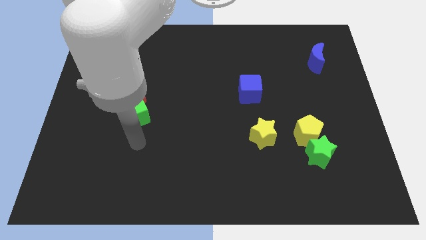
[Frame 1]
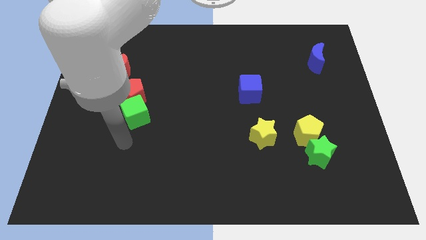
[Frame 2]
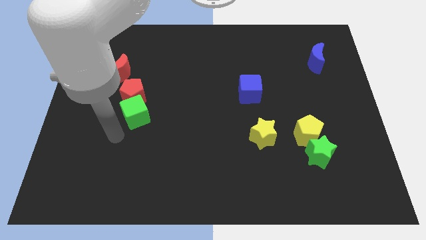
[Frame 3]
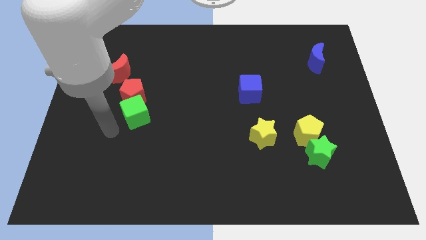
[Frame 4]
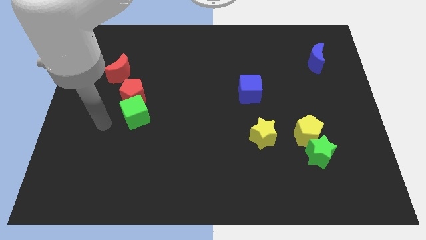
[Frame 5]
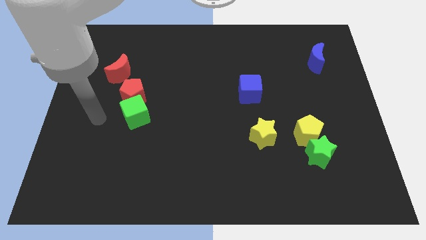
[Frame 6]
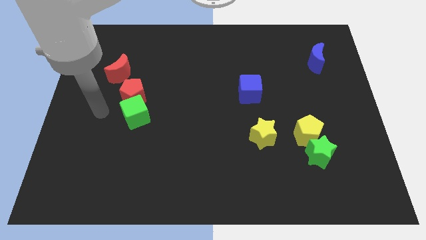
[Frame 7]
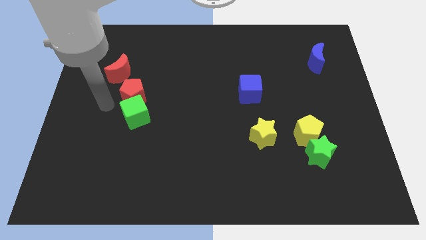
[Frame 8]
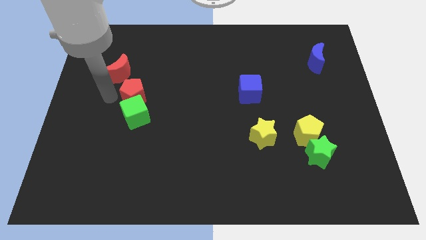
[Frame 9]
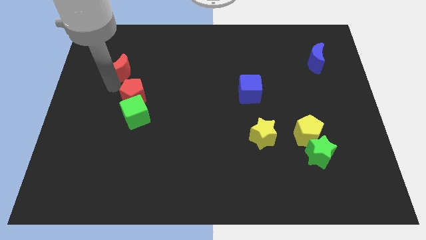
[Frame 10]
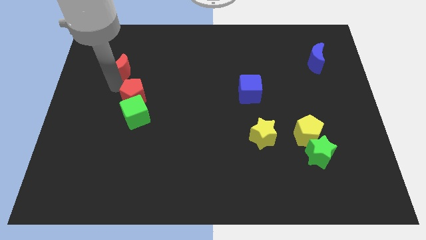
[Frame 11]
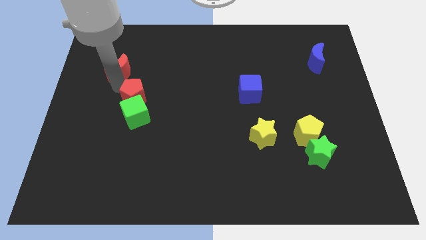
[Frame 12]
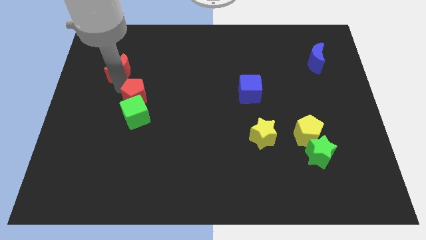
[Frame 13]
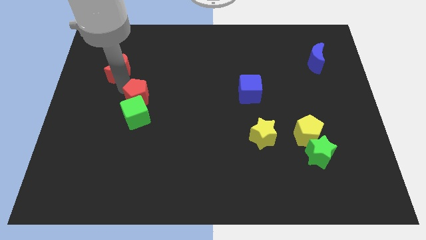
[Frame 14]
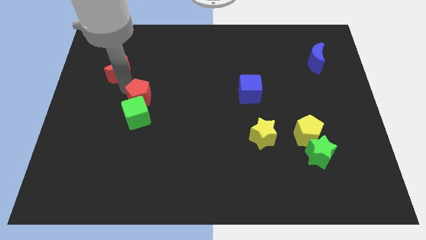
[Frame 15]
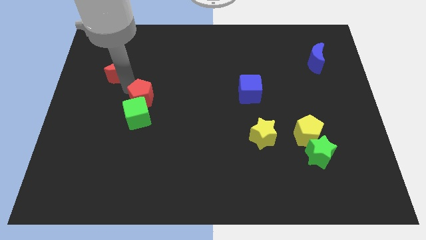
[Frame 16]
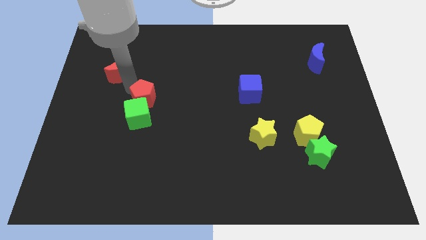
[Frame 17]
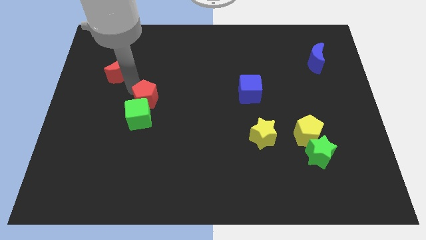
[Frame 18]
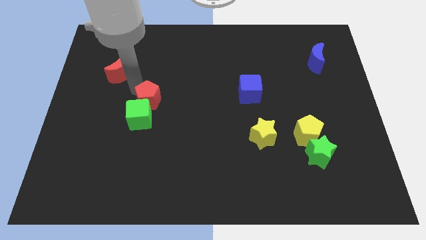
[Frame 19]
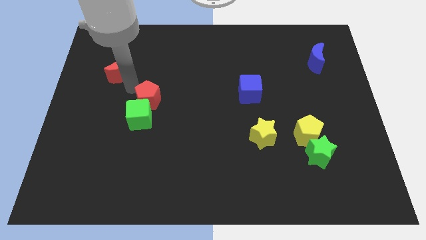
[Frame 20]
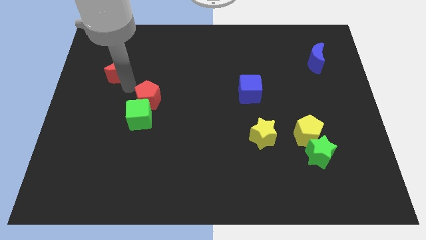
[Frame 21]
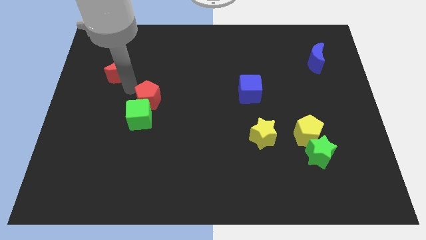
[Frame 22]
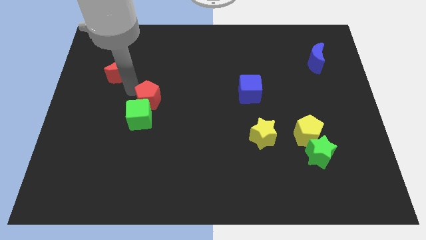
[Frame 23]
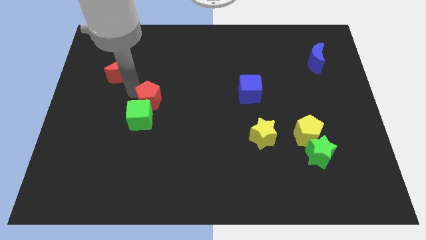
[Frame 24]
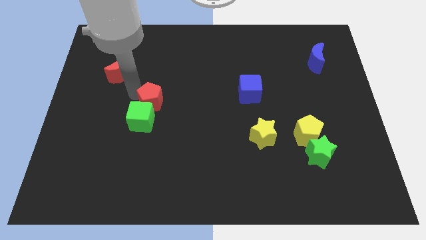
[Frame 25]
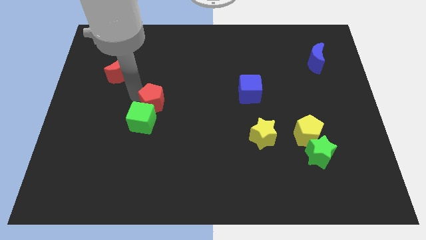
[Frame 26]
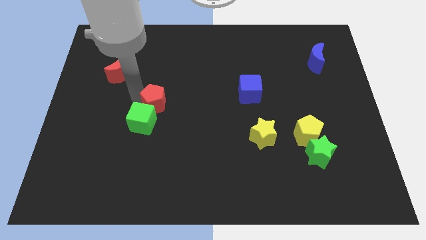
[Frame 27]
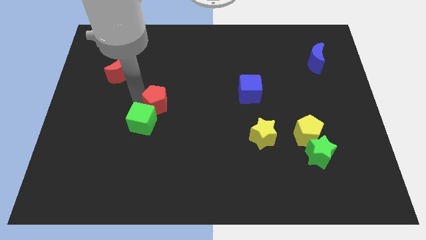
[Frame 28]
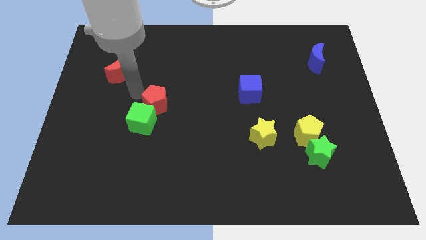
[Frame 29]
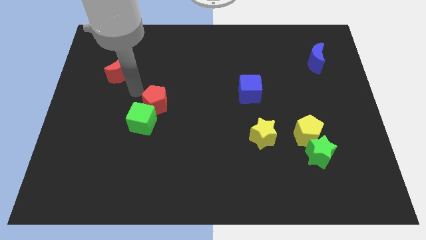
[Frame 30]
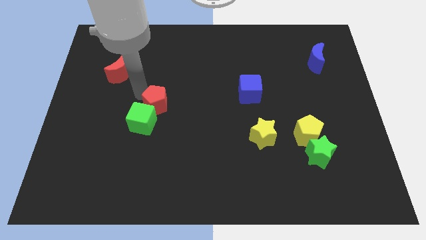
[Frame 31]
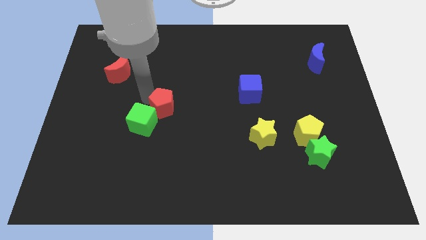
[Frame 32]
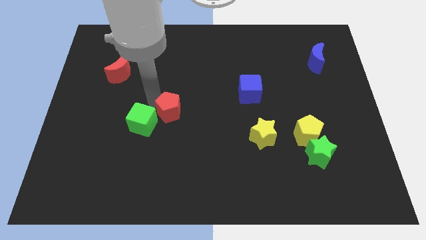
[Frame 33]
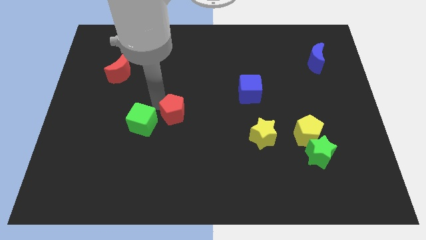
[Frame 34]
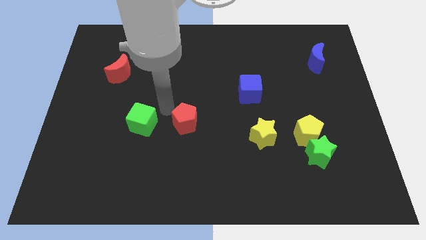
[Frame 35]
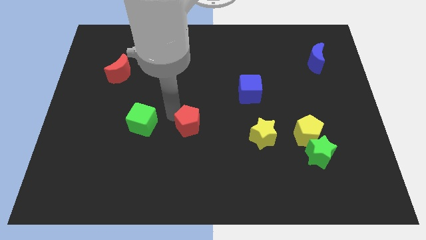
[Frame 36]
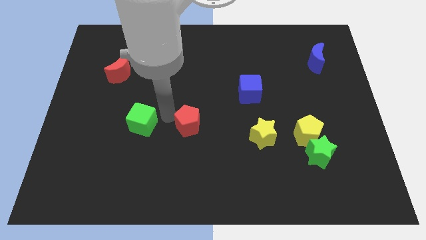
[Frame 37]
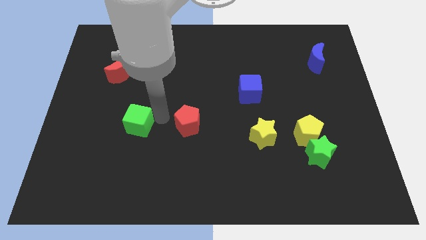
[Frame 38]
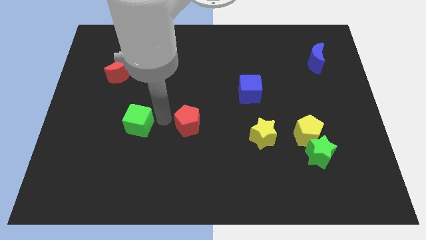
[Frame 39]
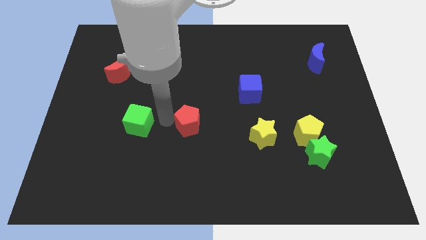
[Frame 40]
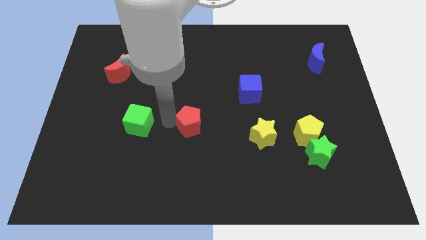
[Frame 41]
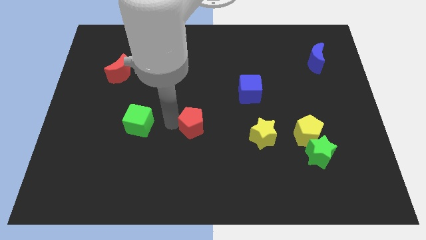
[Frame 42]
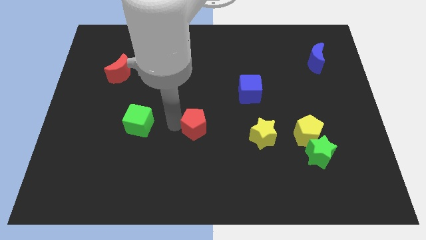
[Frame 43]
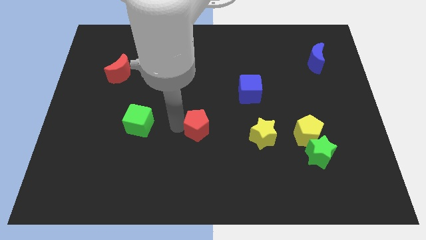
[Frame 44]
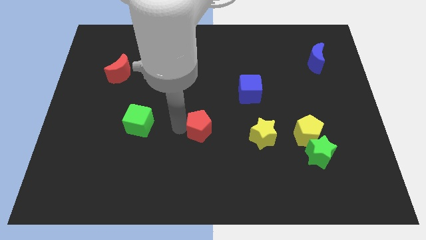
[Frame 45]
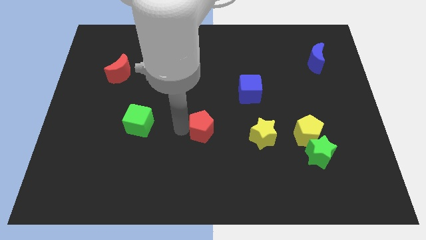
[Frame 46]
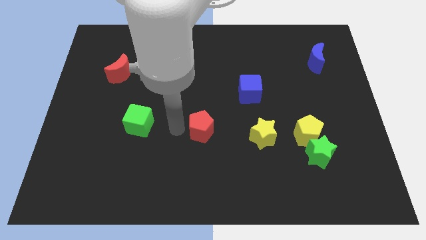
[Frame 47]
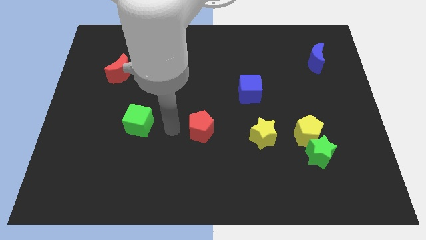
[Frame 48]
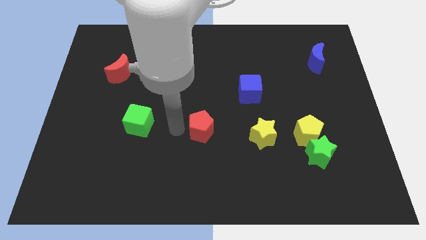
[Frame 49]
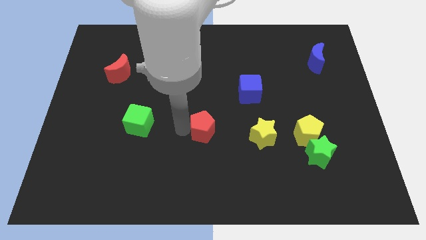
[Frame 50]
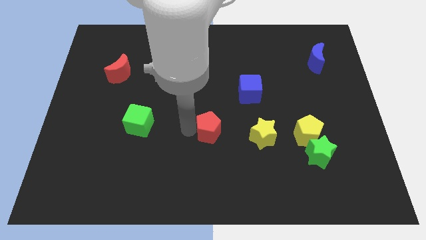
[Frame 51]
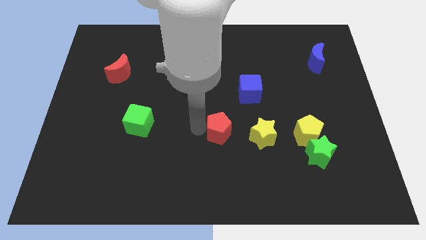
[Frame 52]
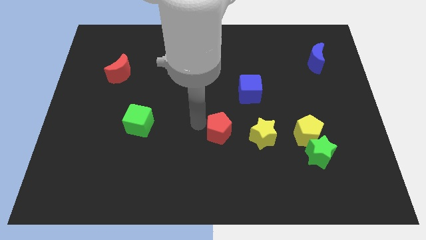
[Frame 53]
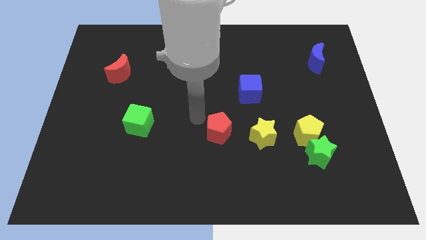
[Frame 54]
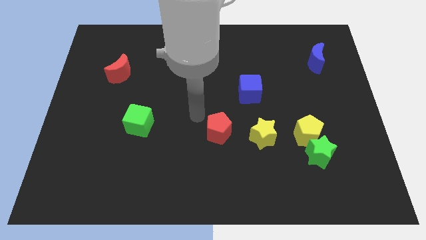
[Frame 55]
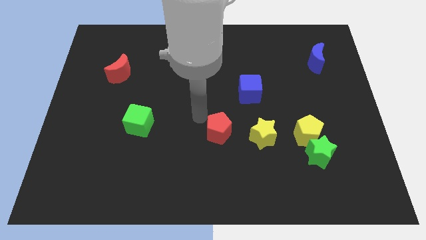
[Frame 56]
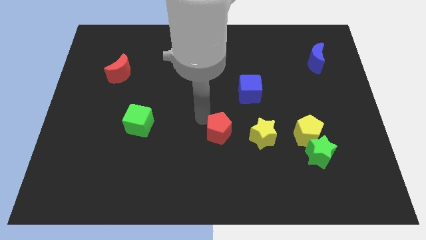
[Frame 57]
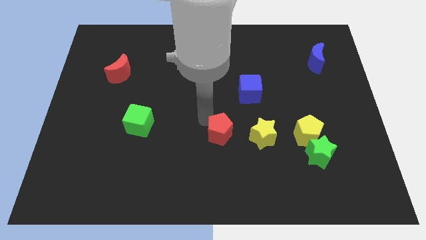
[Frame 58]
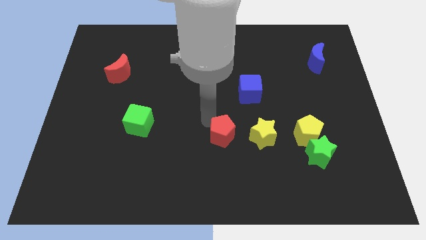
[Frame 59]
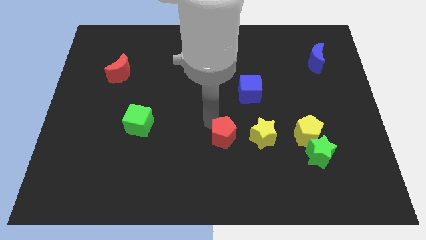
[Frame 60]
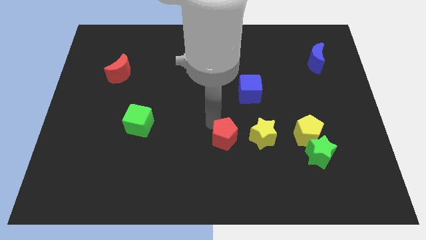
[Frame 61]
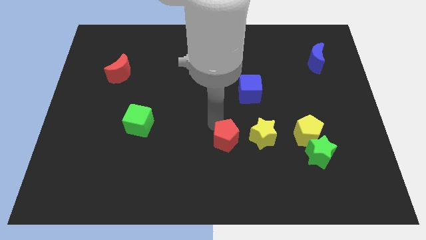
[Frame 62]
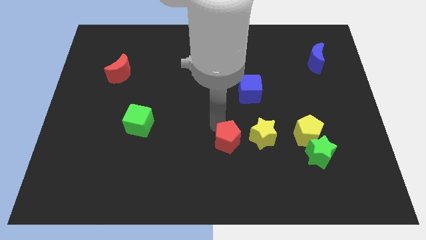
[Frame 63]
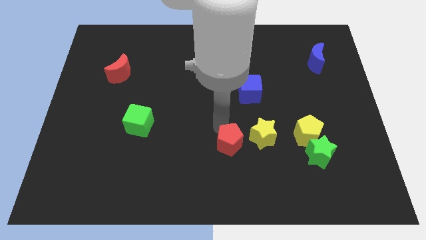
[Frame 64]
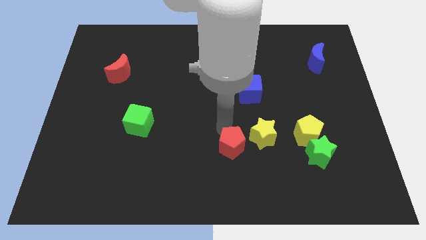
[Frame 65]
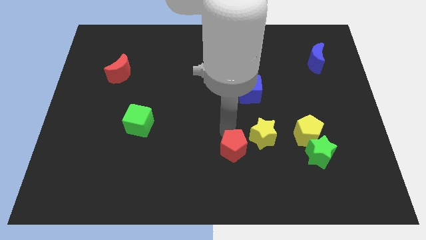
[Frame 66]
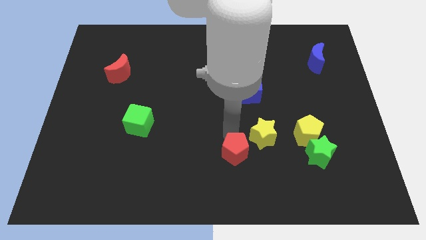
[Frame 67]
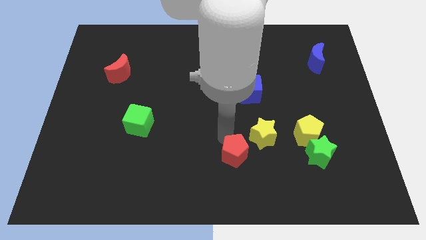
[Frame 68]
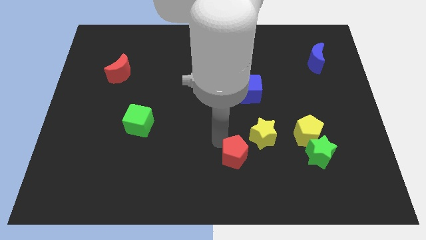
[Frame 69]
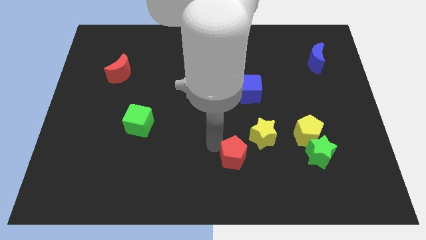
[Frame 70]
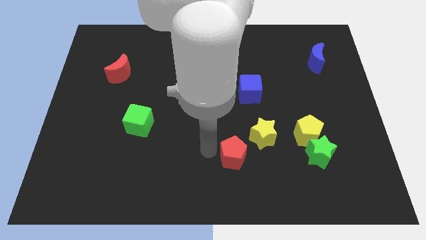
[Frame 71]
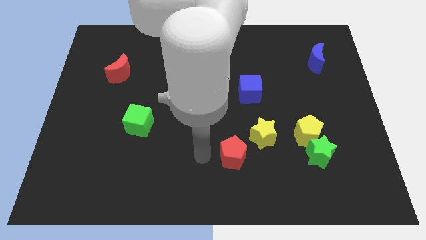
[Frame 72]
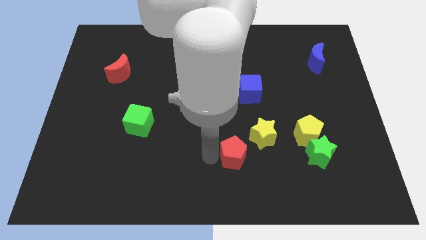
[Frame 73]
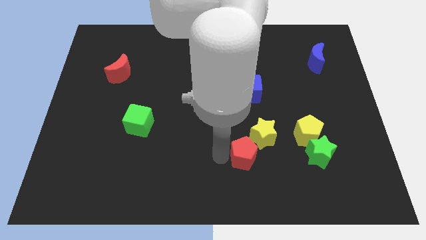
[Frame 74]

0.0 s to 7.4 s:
move the red pentagon to the left of the green star
